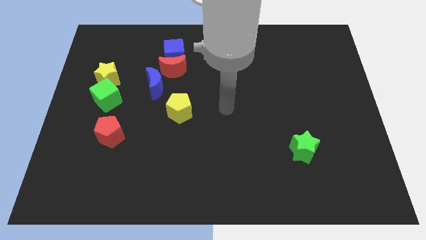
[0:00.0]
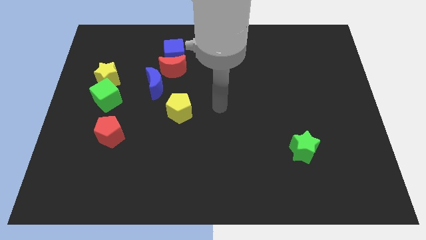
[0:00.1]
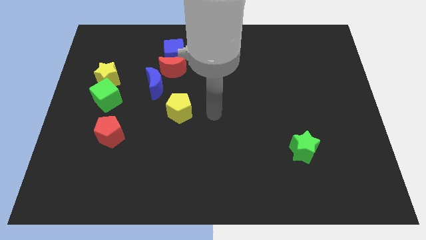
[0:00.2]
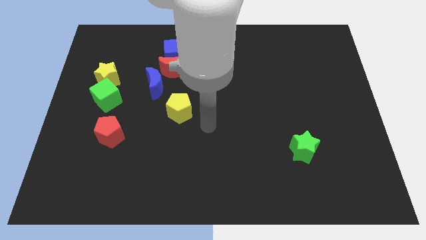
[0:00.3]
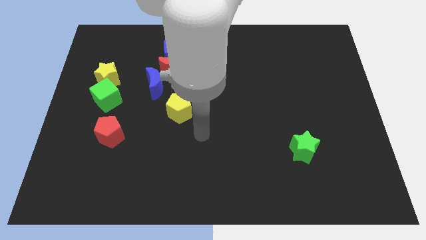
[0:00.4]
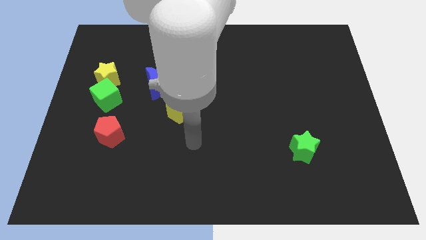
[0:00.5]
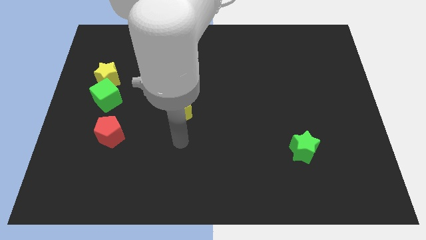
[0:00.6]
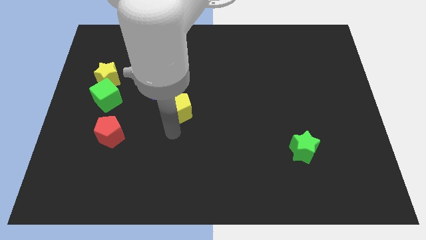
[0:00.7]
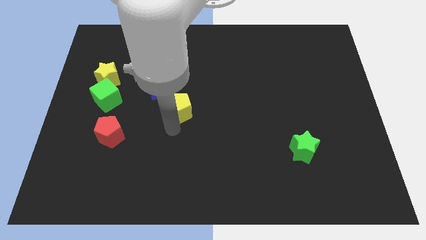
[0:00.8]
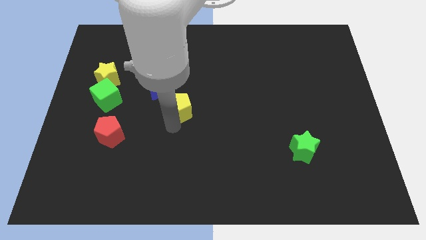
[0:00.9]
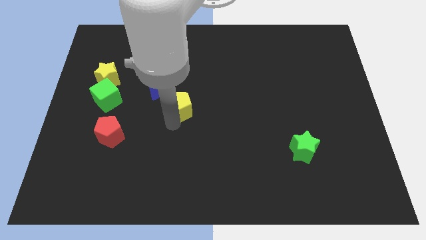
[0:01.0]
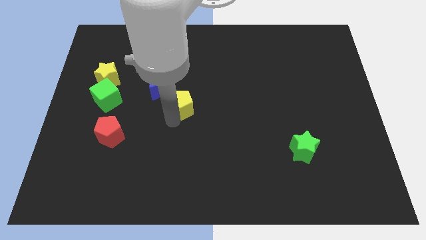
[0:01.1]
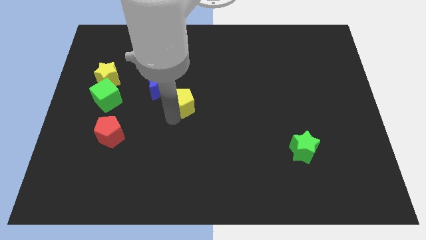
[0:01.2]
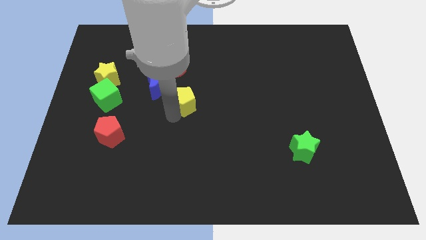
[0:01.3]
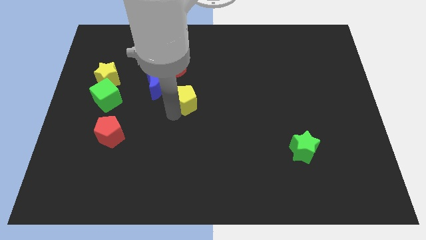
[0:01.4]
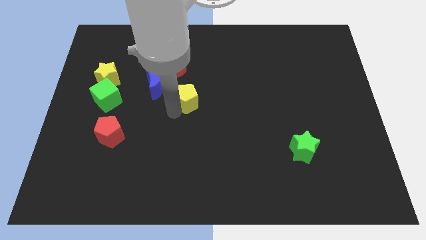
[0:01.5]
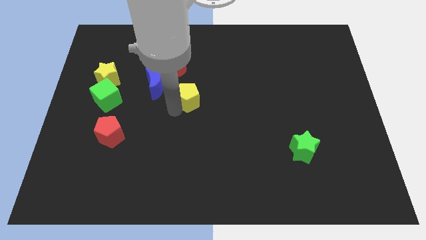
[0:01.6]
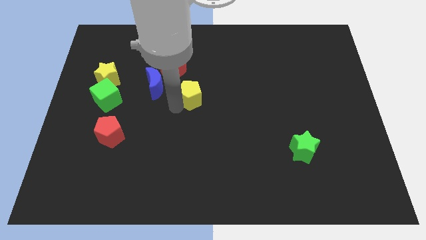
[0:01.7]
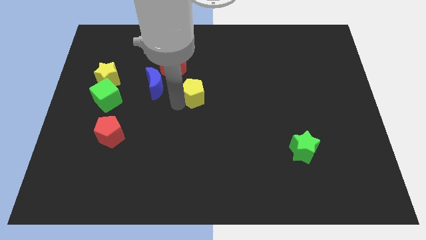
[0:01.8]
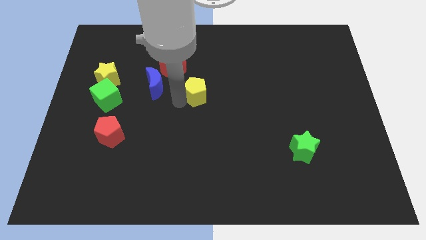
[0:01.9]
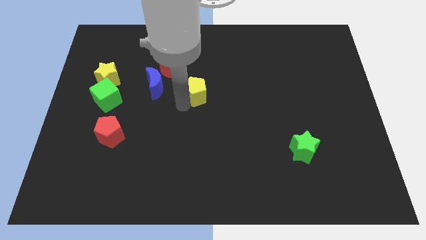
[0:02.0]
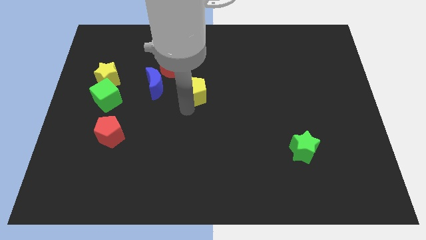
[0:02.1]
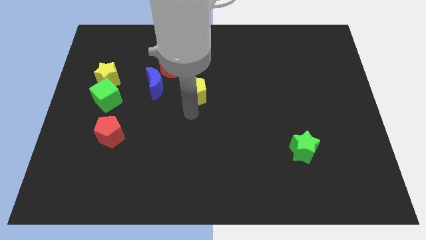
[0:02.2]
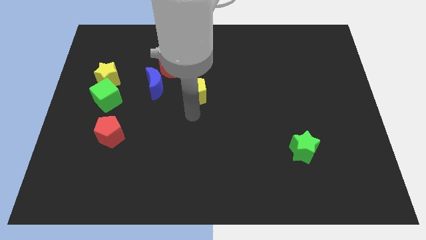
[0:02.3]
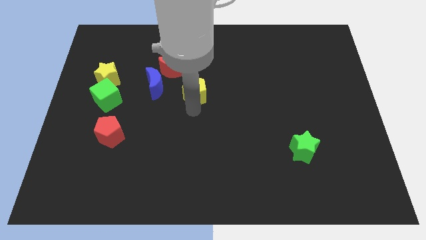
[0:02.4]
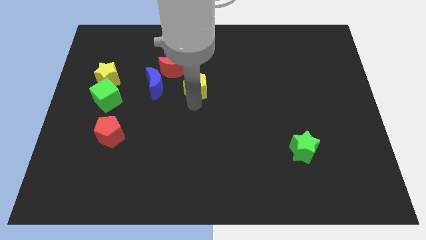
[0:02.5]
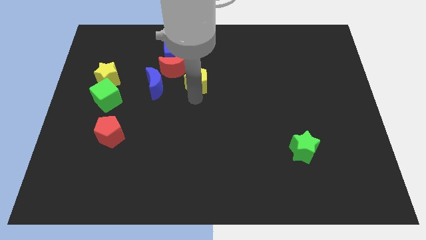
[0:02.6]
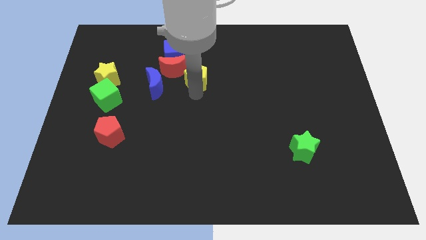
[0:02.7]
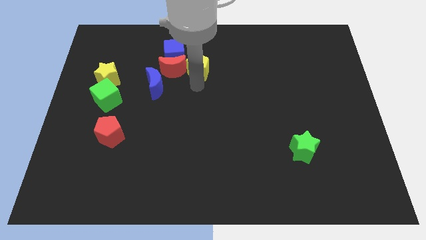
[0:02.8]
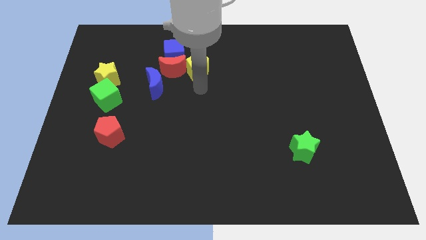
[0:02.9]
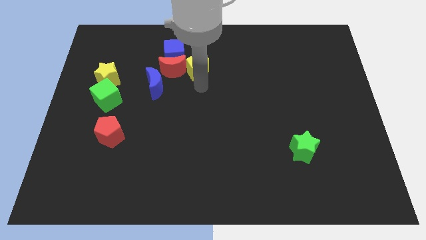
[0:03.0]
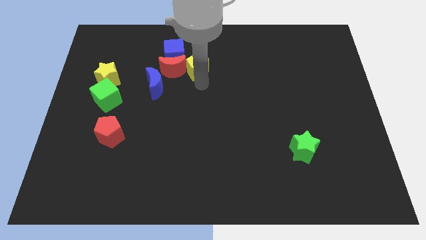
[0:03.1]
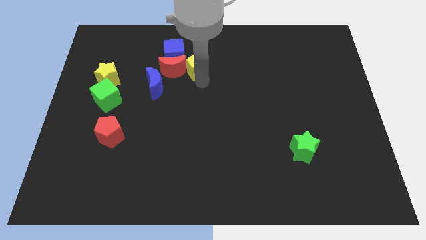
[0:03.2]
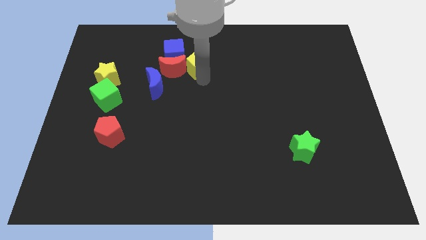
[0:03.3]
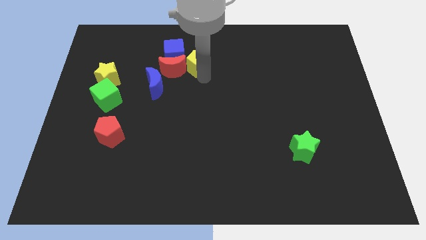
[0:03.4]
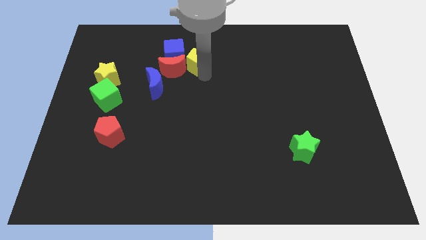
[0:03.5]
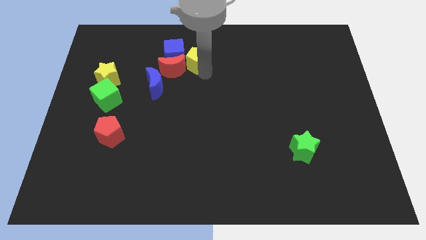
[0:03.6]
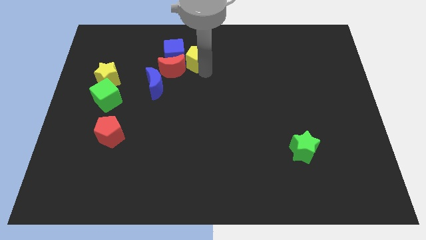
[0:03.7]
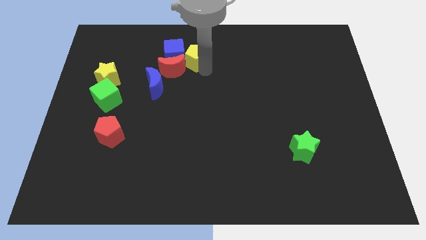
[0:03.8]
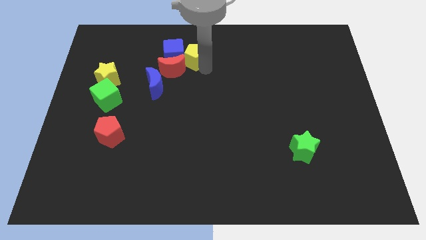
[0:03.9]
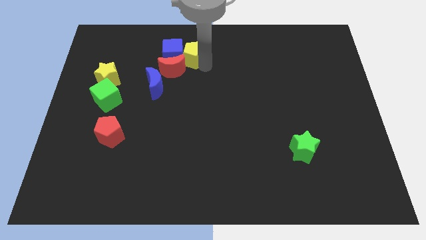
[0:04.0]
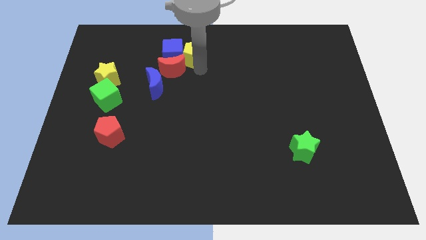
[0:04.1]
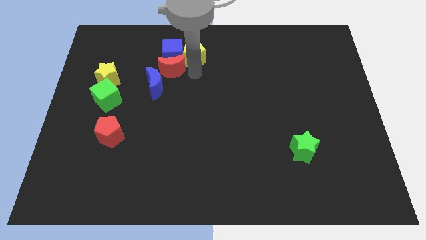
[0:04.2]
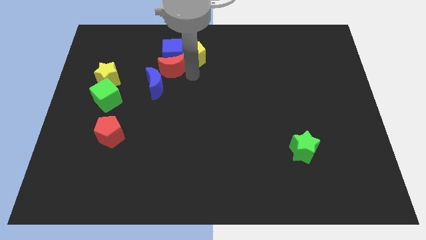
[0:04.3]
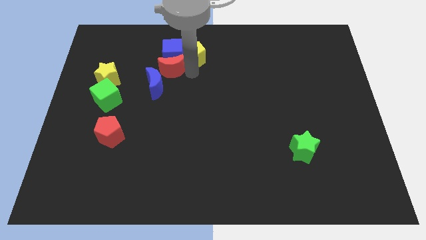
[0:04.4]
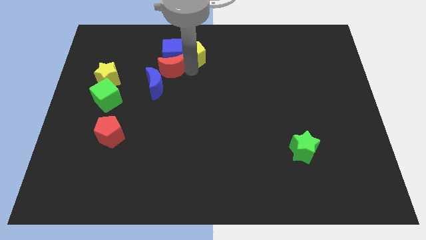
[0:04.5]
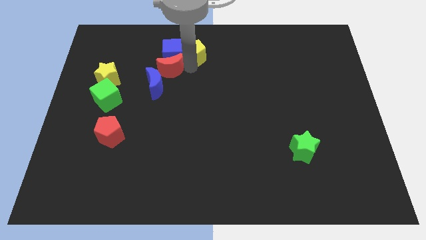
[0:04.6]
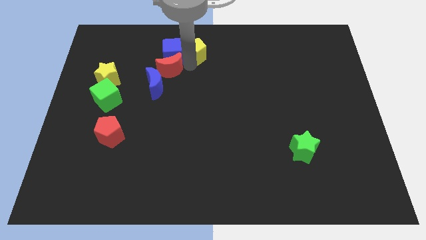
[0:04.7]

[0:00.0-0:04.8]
put the yellow pentagon to the top

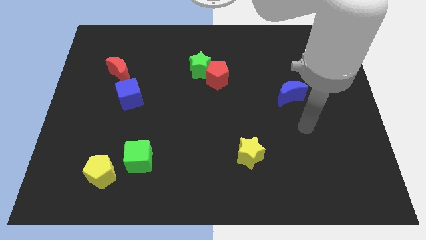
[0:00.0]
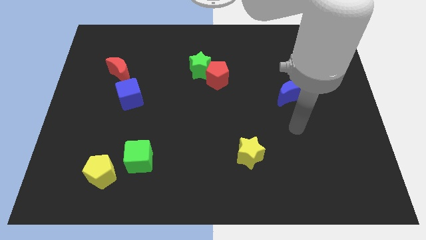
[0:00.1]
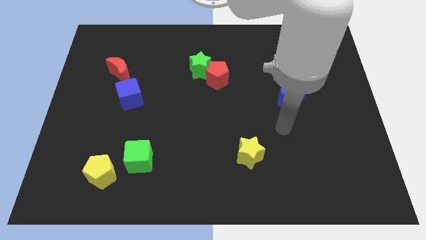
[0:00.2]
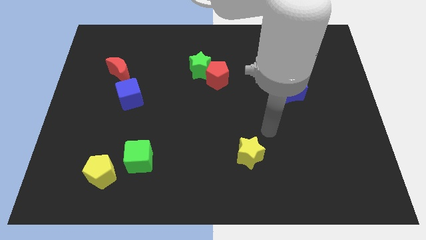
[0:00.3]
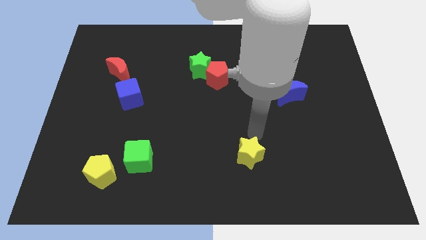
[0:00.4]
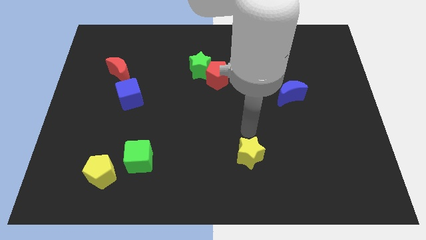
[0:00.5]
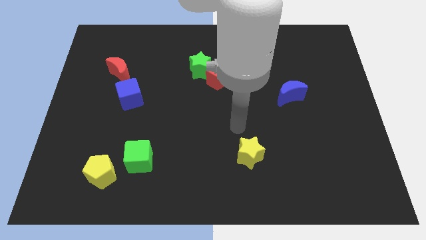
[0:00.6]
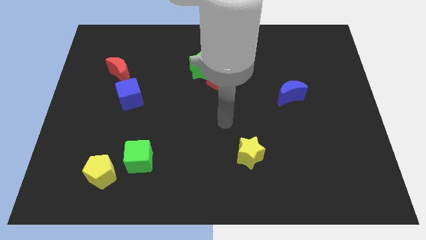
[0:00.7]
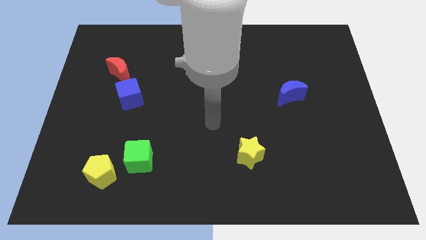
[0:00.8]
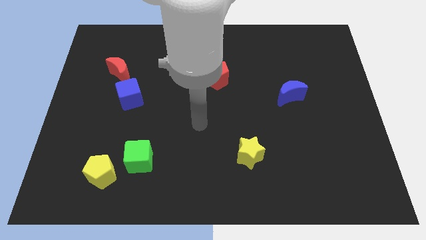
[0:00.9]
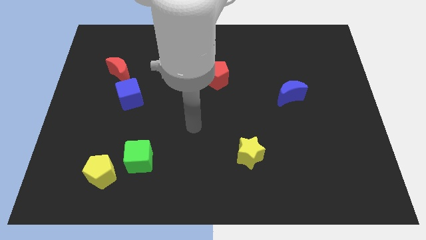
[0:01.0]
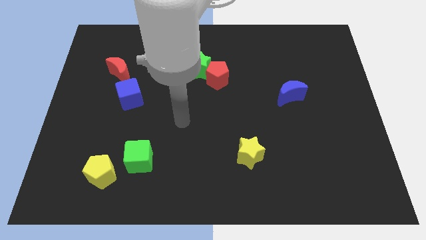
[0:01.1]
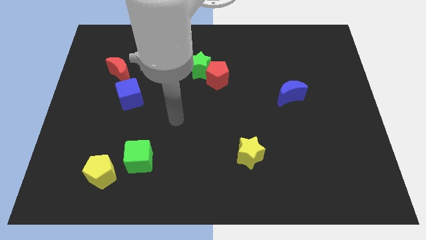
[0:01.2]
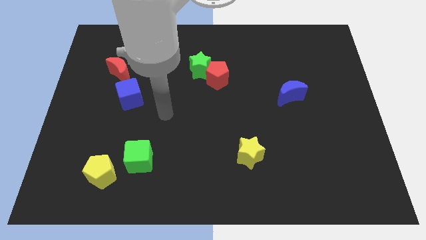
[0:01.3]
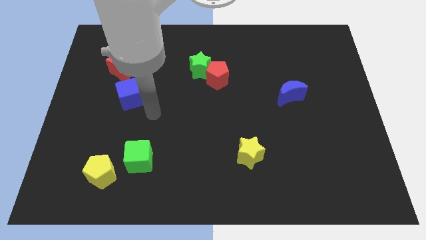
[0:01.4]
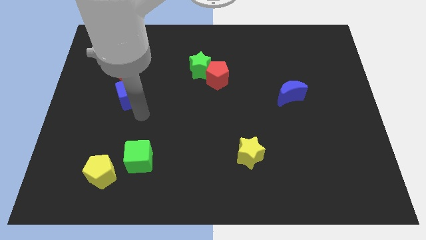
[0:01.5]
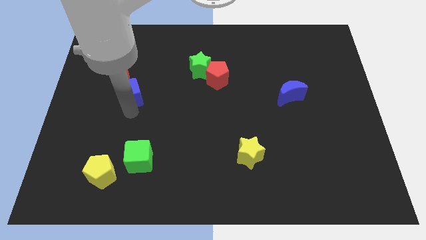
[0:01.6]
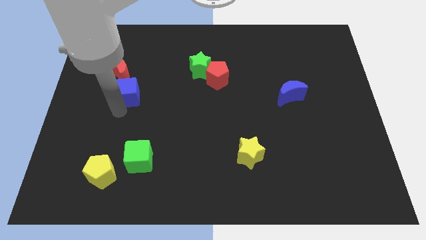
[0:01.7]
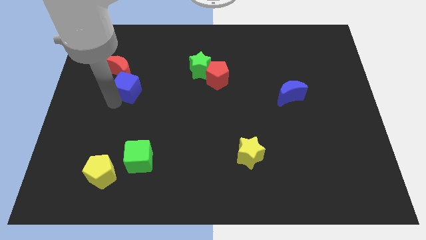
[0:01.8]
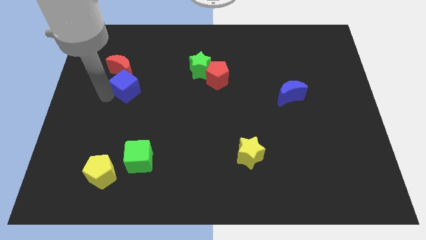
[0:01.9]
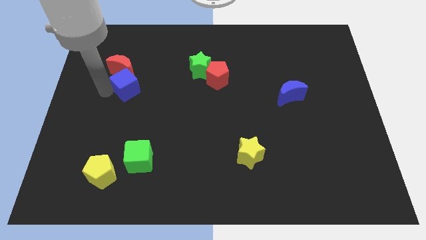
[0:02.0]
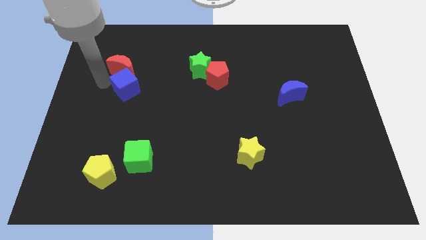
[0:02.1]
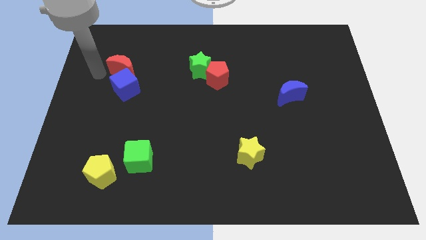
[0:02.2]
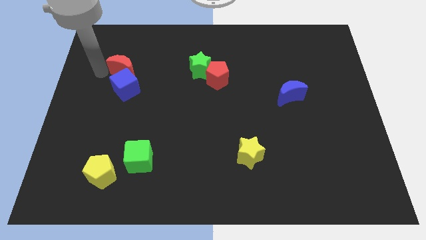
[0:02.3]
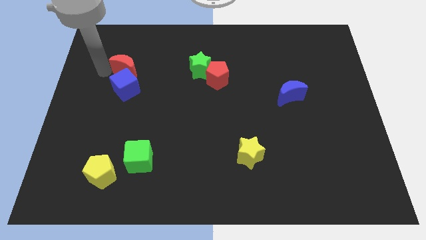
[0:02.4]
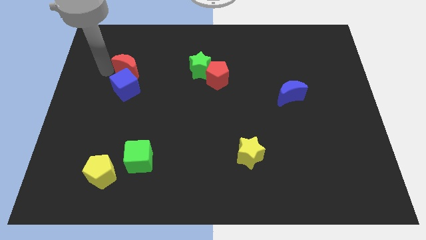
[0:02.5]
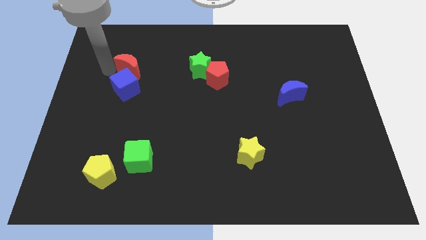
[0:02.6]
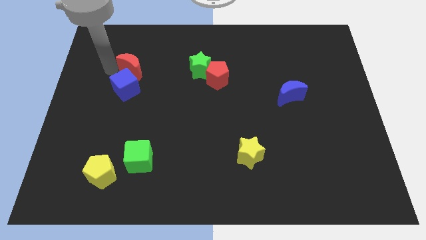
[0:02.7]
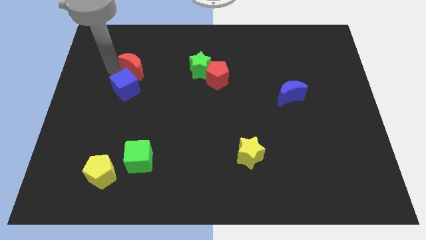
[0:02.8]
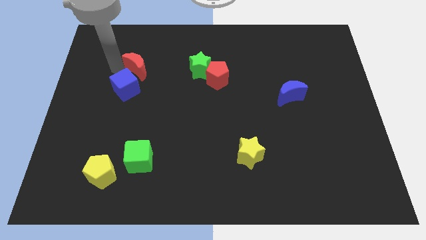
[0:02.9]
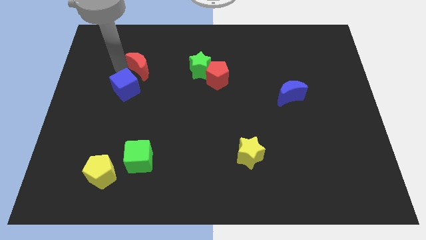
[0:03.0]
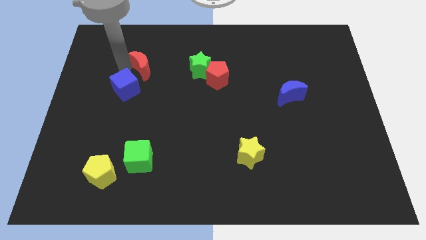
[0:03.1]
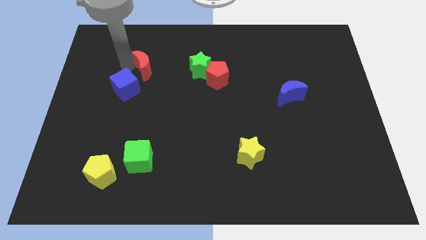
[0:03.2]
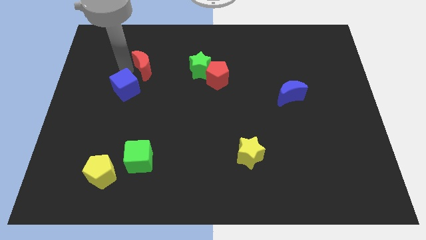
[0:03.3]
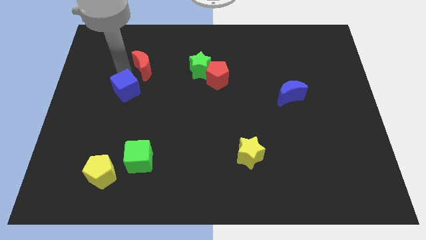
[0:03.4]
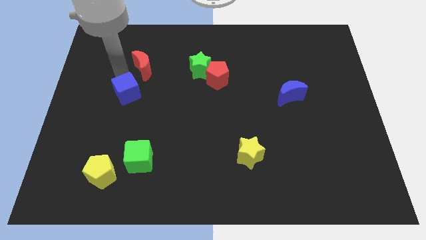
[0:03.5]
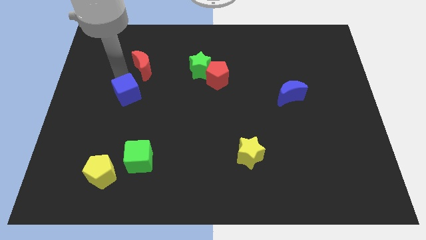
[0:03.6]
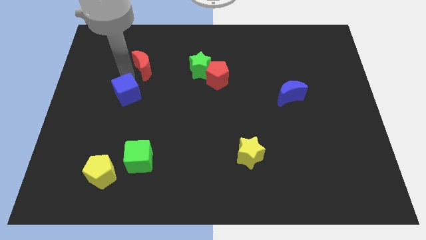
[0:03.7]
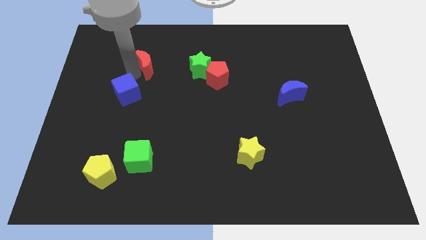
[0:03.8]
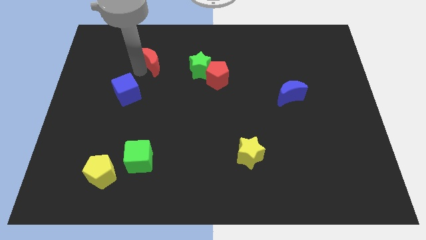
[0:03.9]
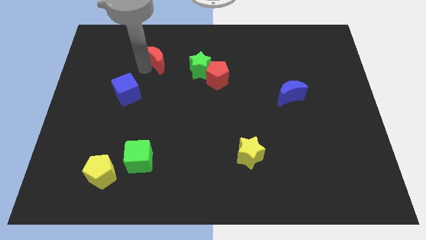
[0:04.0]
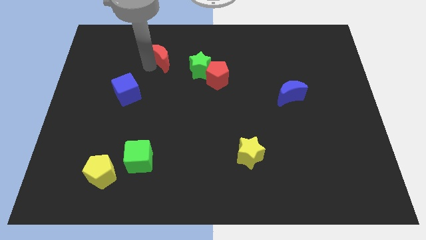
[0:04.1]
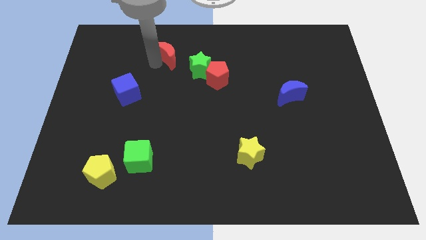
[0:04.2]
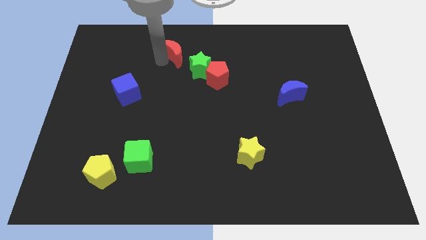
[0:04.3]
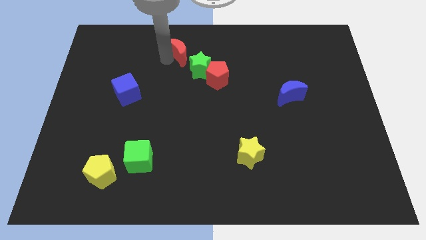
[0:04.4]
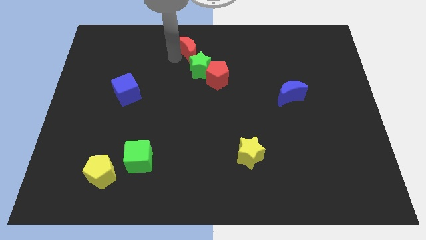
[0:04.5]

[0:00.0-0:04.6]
slide the red moon to the top side
